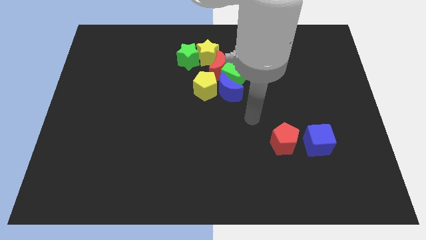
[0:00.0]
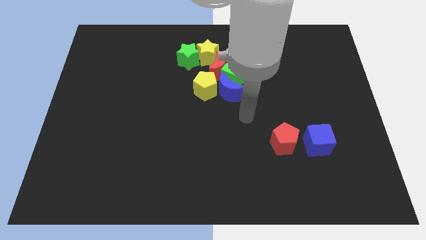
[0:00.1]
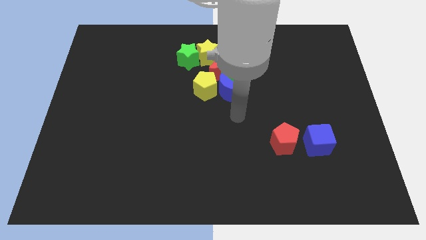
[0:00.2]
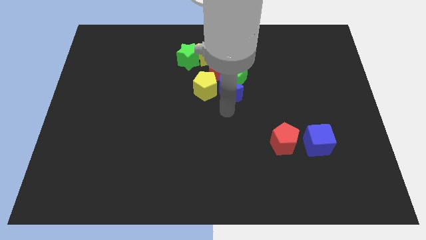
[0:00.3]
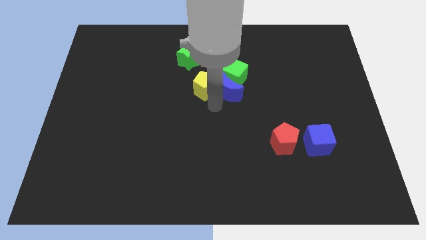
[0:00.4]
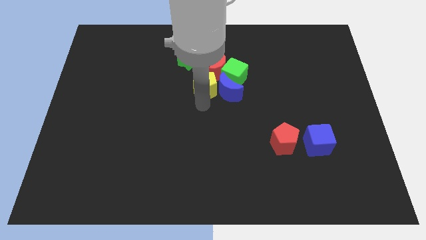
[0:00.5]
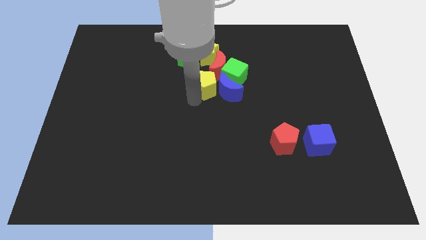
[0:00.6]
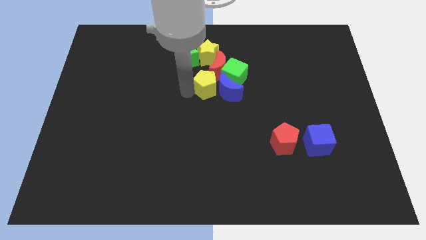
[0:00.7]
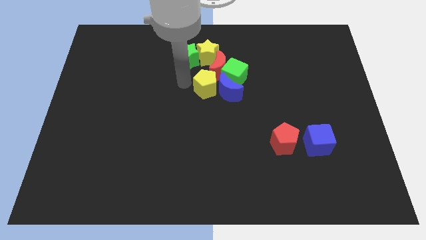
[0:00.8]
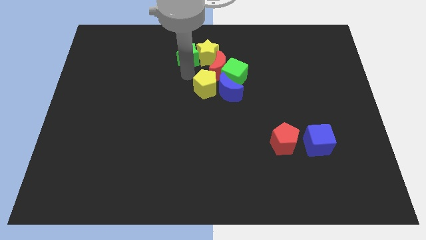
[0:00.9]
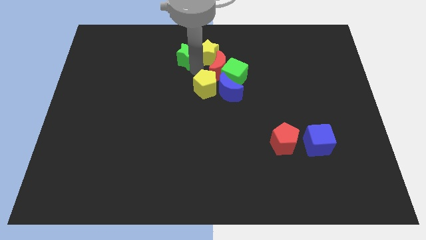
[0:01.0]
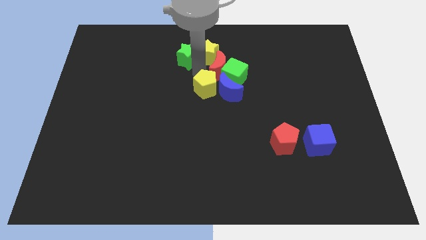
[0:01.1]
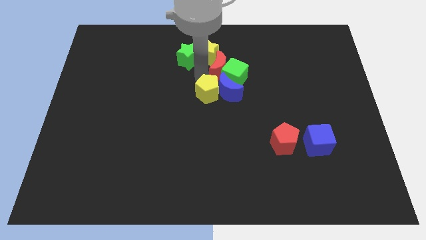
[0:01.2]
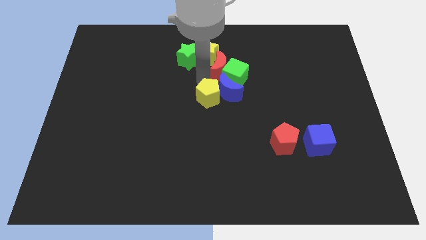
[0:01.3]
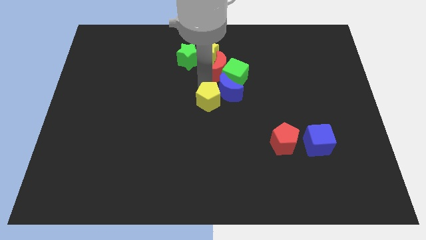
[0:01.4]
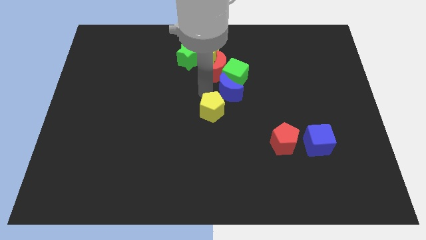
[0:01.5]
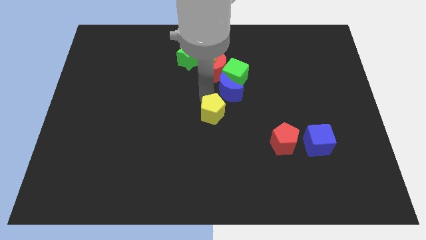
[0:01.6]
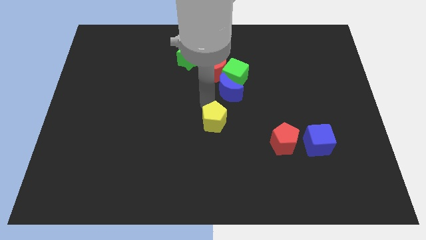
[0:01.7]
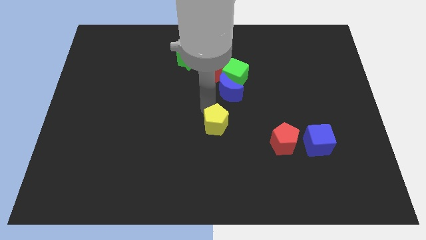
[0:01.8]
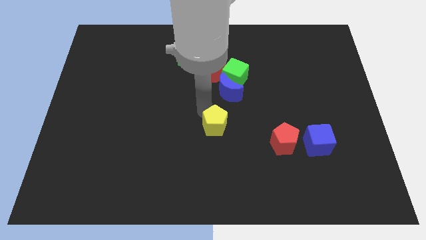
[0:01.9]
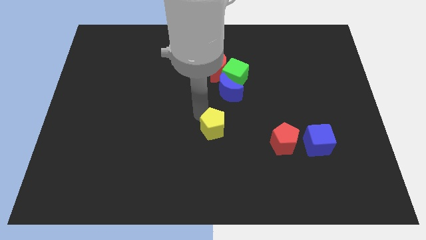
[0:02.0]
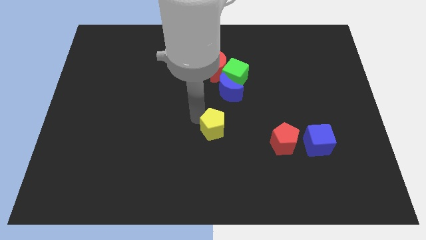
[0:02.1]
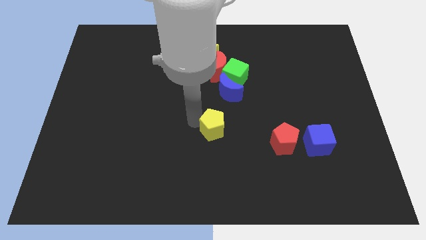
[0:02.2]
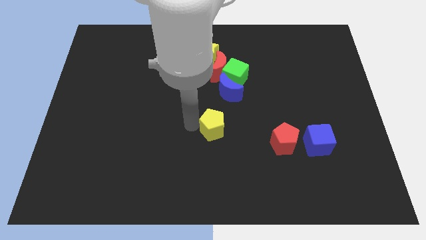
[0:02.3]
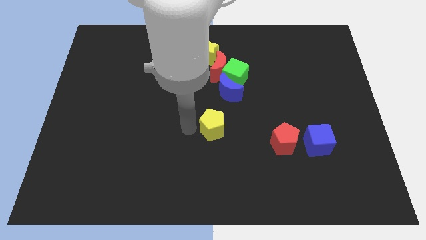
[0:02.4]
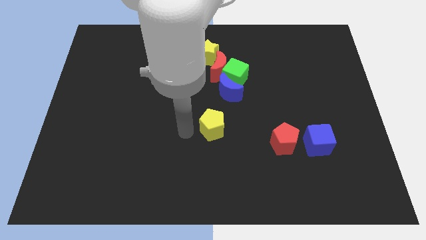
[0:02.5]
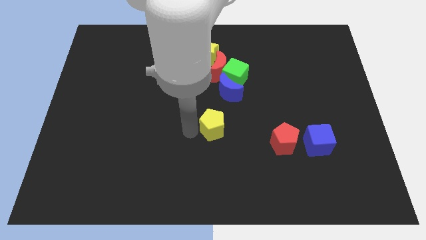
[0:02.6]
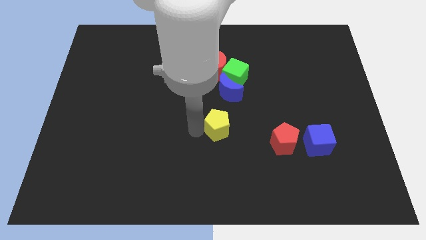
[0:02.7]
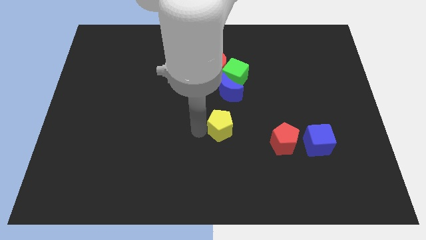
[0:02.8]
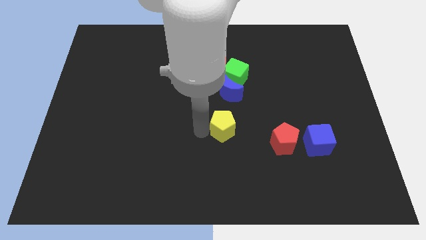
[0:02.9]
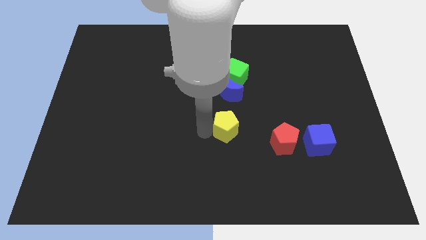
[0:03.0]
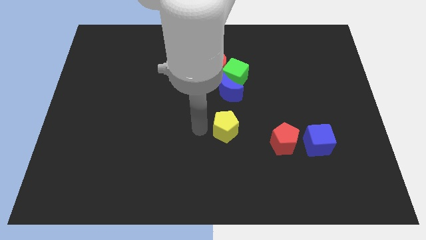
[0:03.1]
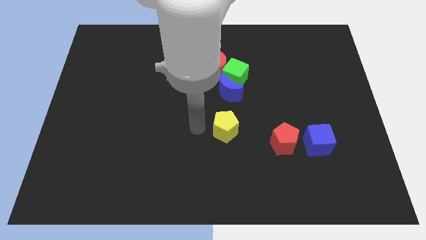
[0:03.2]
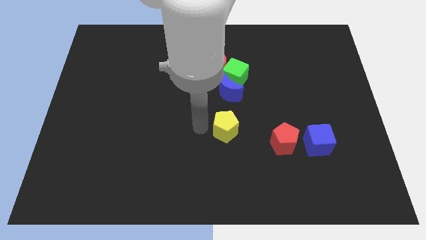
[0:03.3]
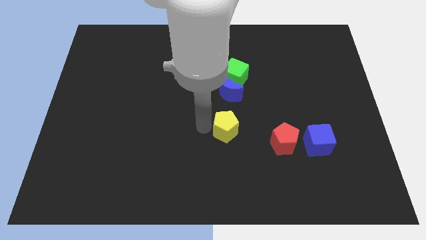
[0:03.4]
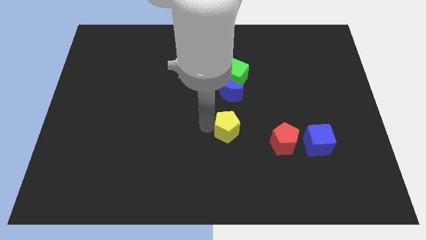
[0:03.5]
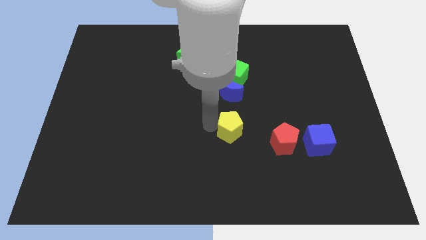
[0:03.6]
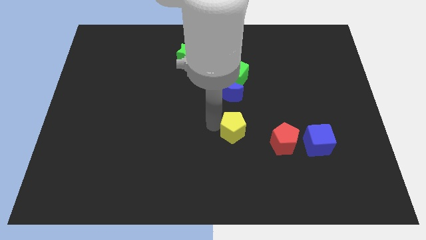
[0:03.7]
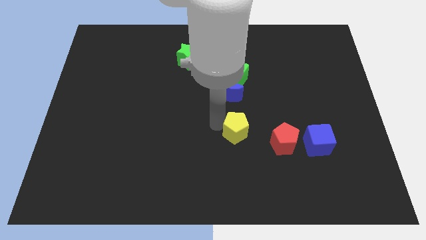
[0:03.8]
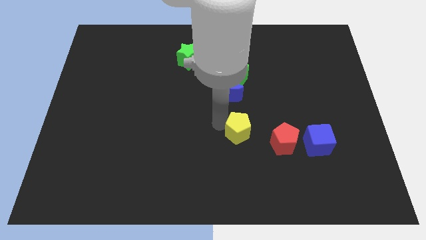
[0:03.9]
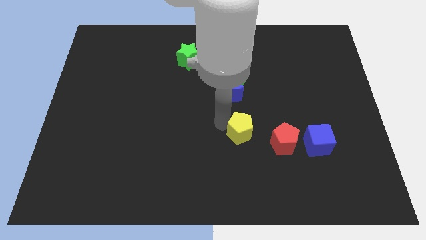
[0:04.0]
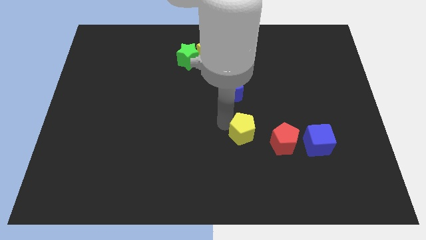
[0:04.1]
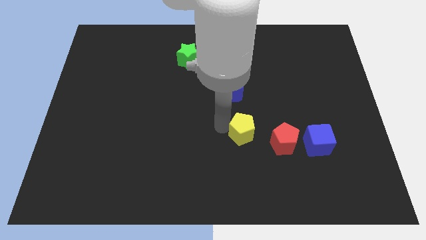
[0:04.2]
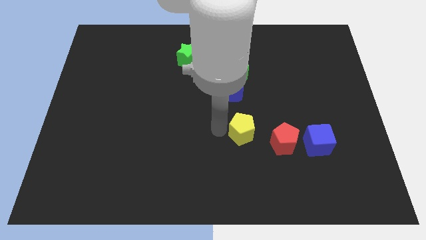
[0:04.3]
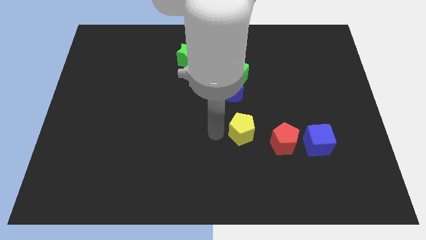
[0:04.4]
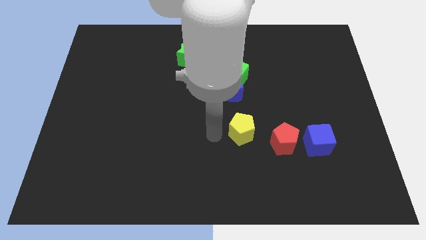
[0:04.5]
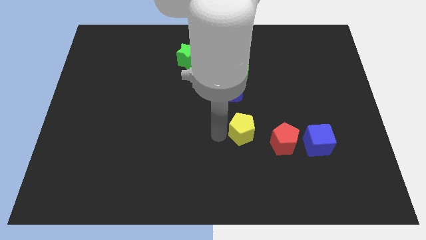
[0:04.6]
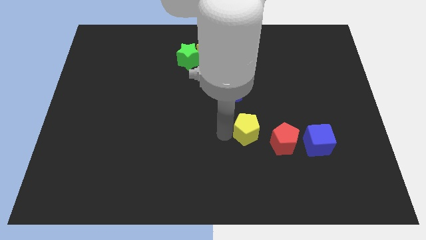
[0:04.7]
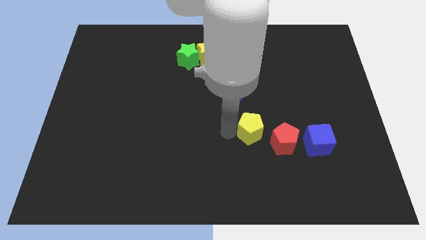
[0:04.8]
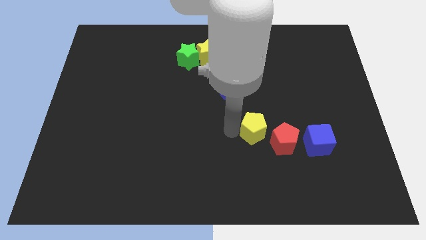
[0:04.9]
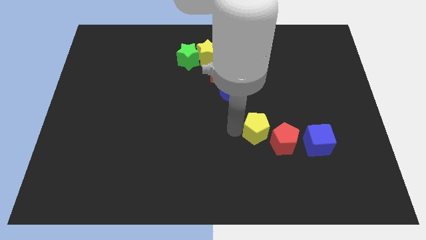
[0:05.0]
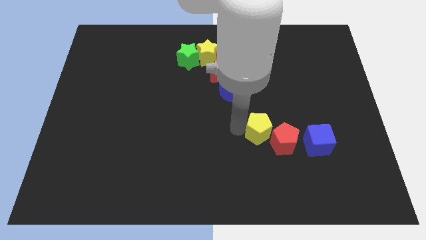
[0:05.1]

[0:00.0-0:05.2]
move the yellow pentagon next to the red pentagon

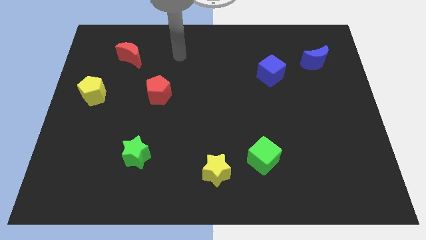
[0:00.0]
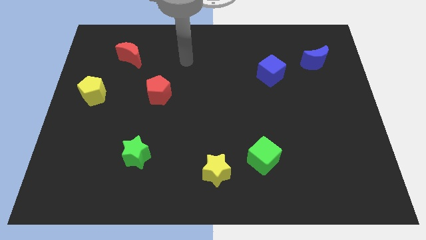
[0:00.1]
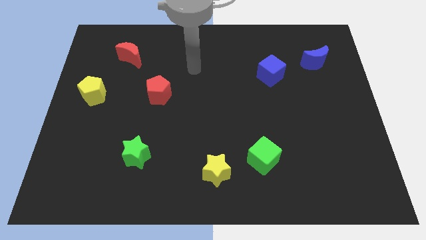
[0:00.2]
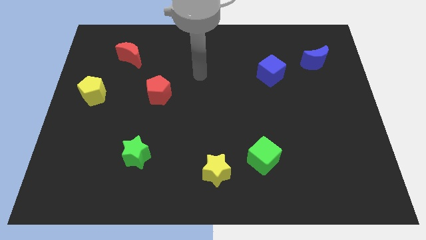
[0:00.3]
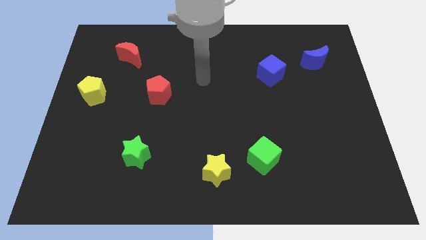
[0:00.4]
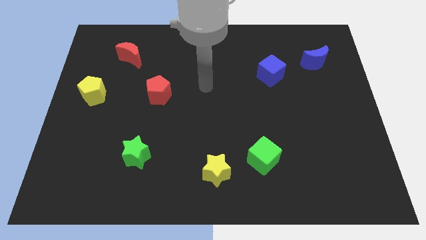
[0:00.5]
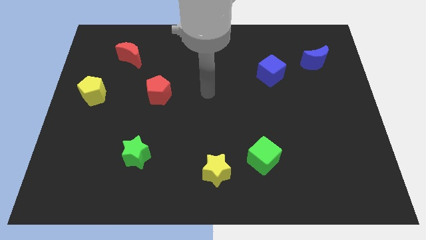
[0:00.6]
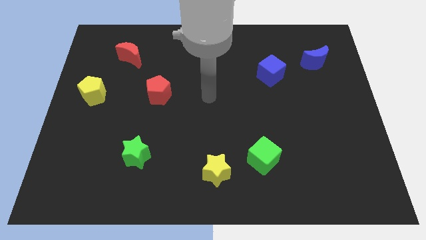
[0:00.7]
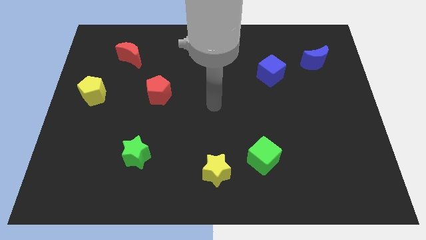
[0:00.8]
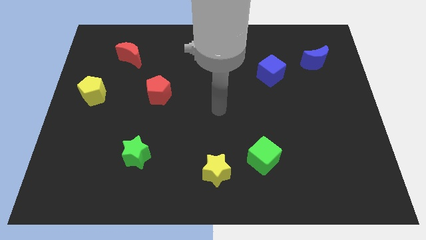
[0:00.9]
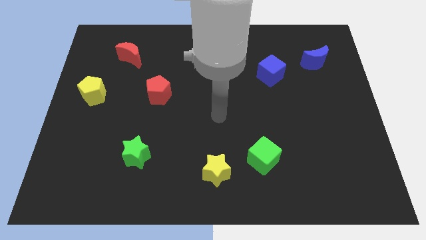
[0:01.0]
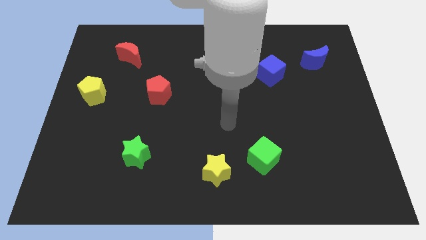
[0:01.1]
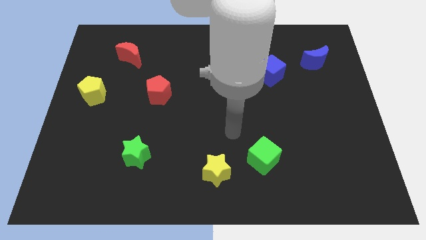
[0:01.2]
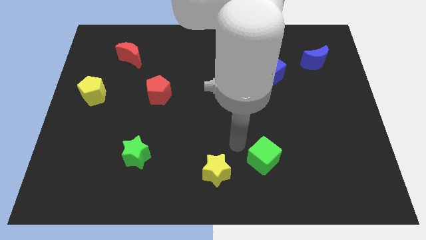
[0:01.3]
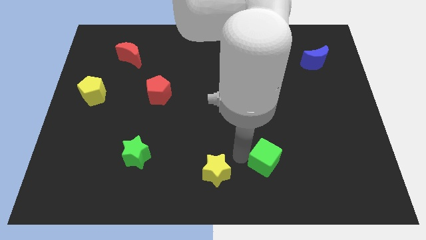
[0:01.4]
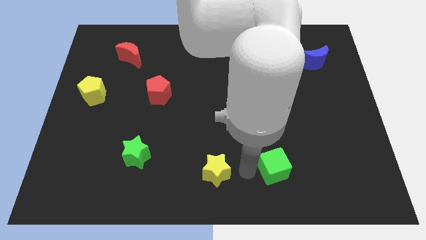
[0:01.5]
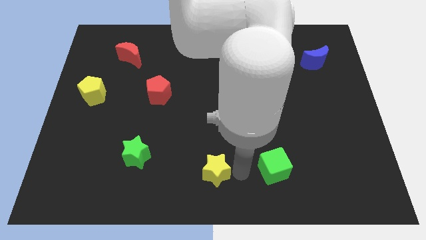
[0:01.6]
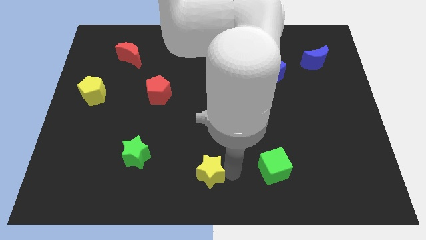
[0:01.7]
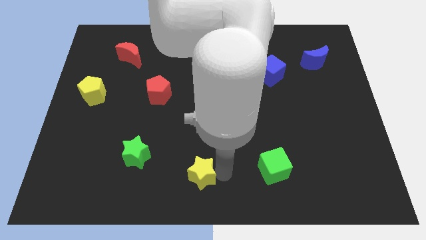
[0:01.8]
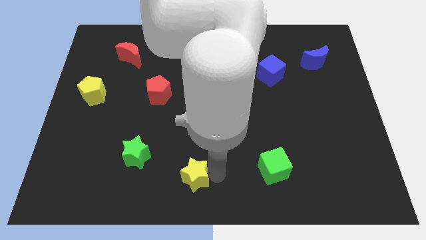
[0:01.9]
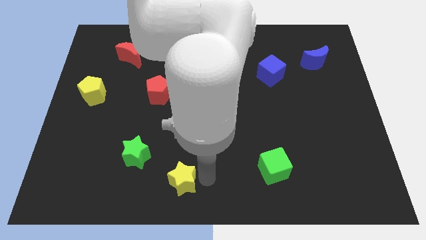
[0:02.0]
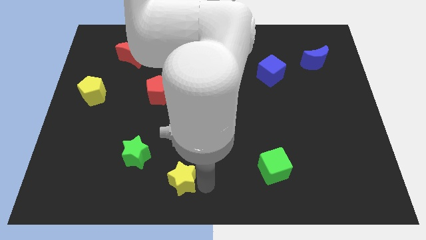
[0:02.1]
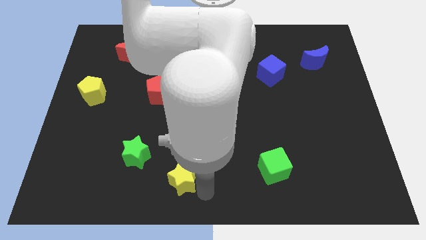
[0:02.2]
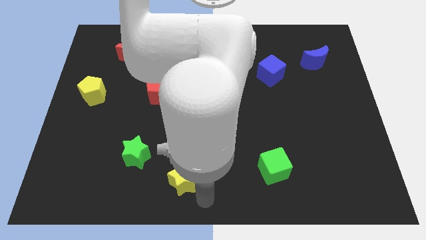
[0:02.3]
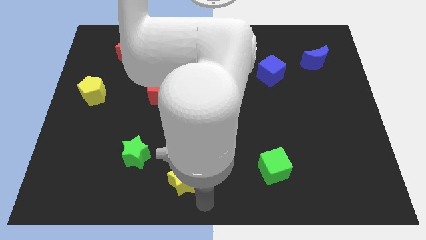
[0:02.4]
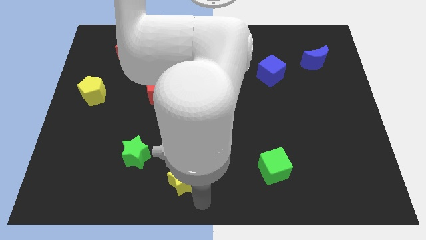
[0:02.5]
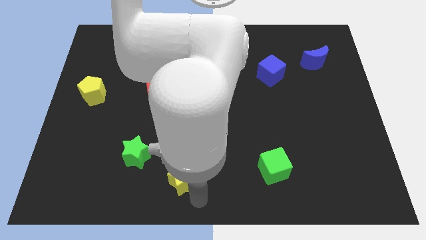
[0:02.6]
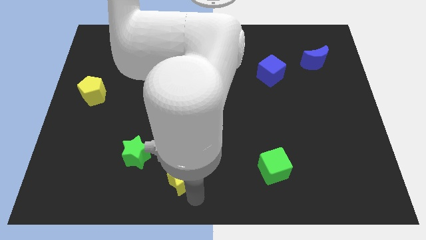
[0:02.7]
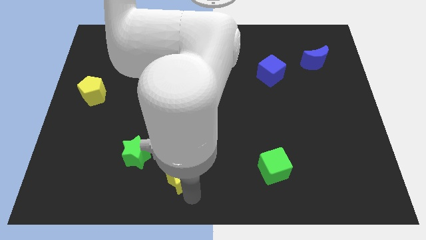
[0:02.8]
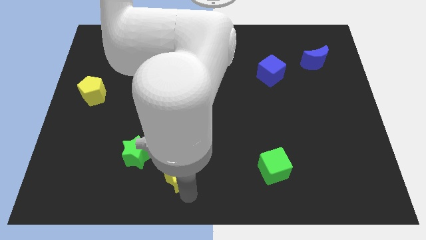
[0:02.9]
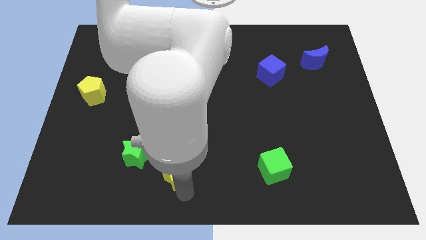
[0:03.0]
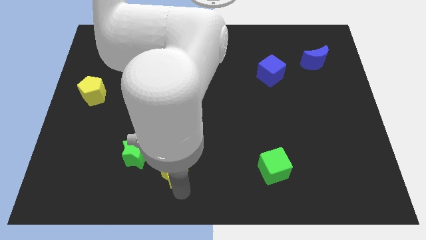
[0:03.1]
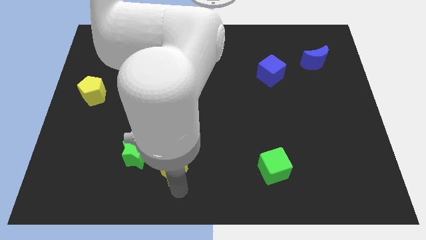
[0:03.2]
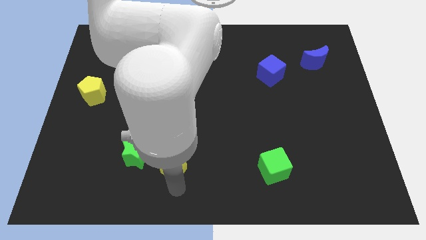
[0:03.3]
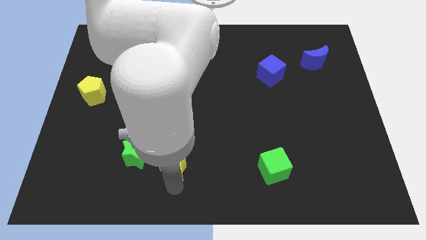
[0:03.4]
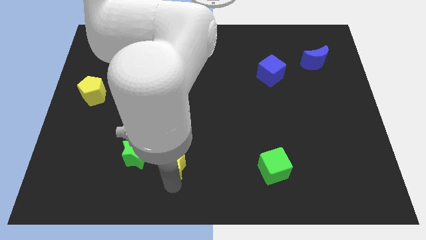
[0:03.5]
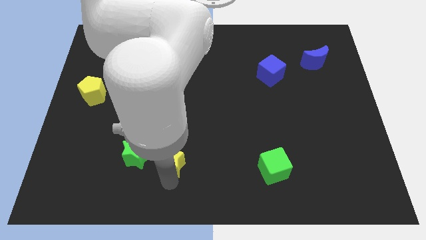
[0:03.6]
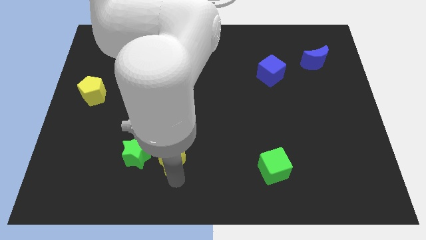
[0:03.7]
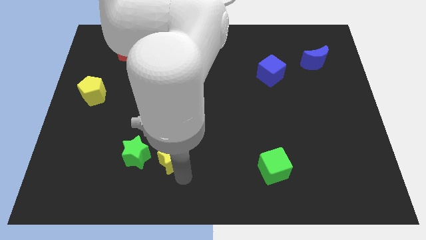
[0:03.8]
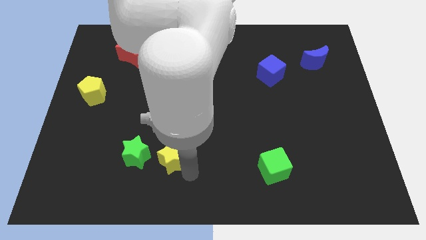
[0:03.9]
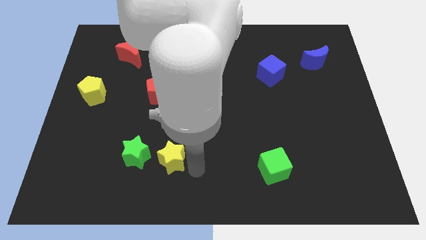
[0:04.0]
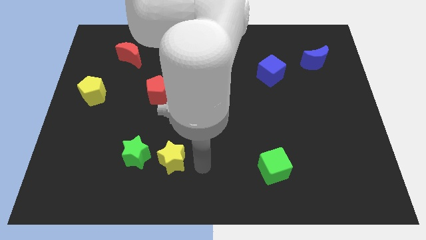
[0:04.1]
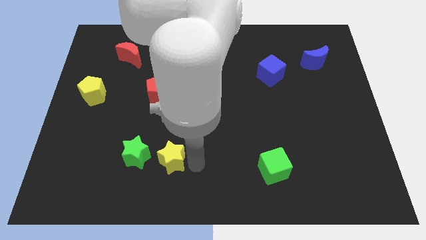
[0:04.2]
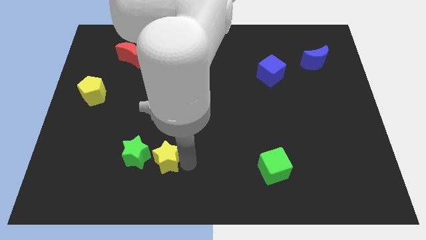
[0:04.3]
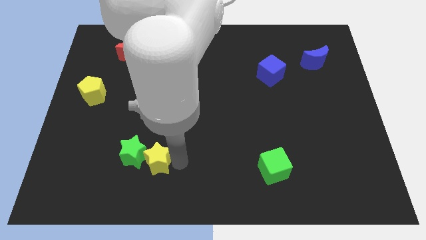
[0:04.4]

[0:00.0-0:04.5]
put the yellow star close to the green star
